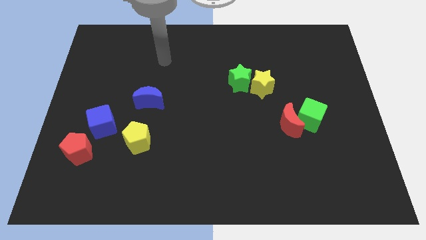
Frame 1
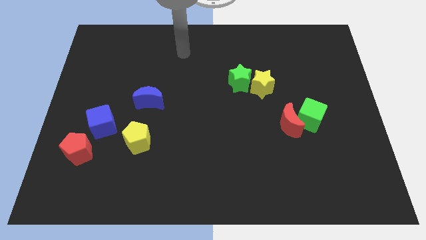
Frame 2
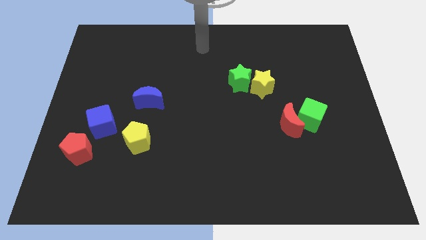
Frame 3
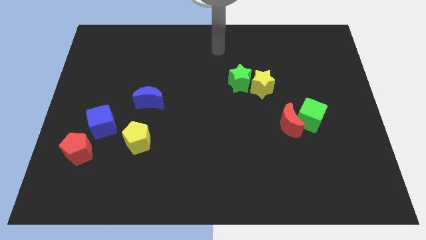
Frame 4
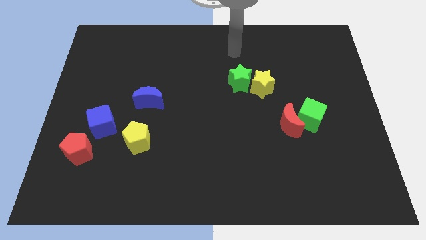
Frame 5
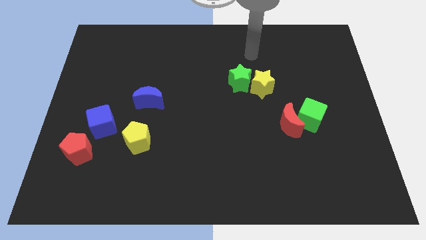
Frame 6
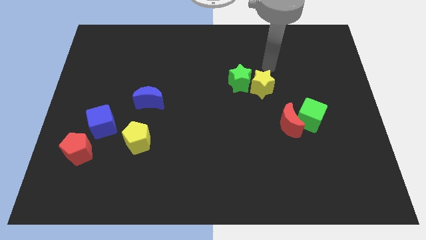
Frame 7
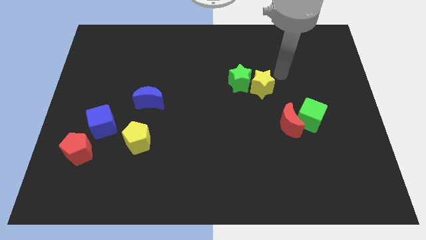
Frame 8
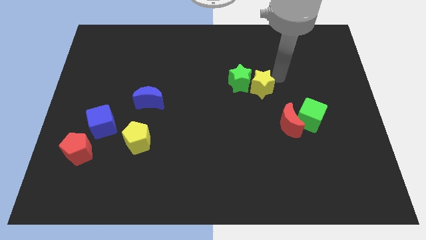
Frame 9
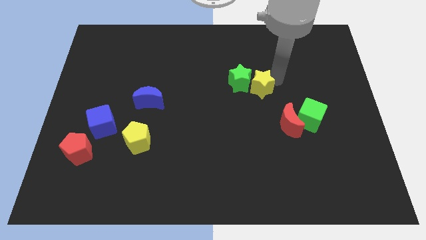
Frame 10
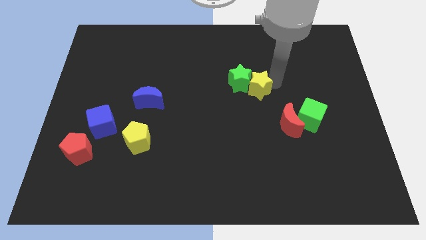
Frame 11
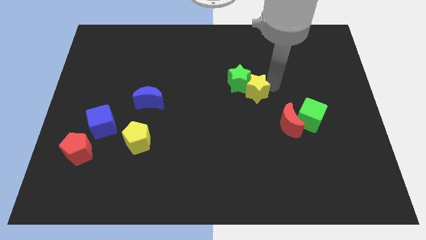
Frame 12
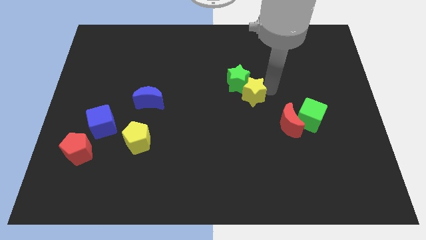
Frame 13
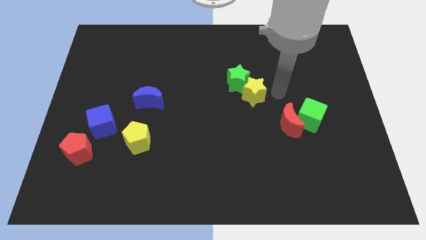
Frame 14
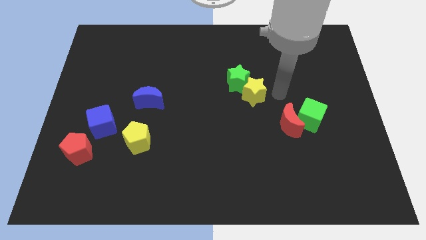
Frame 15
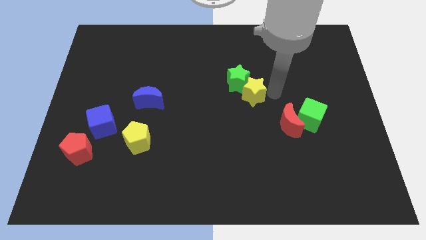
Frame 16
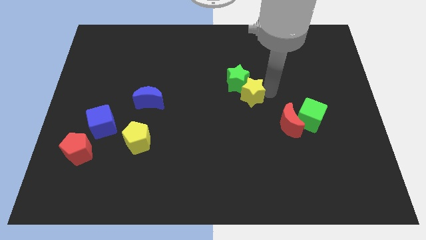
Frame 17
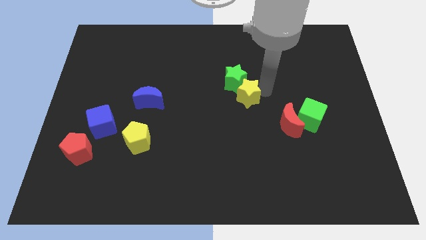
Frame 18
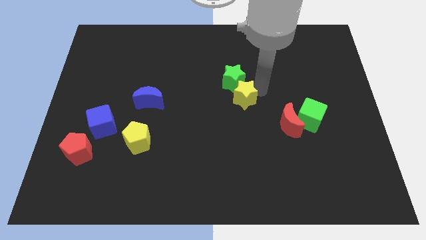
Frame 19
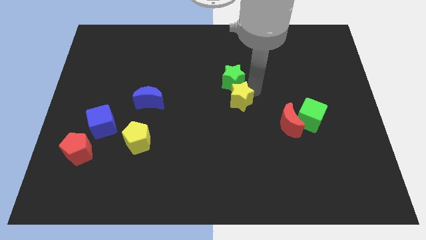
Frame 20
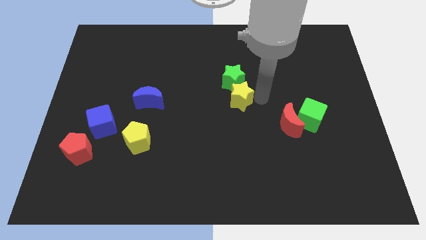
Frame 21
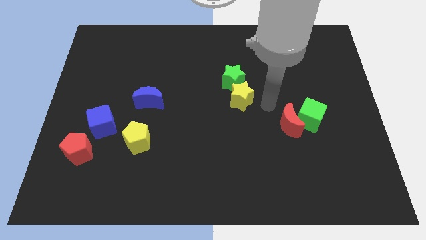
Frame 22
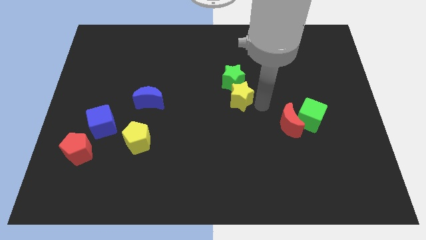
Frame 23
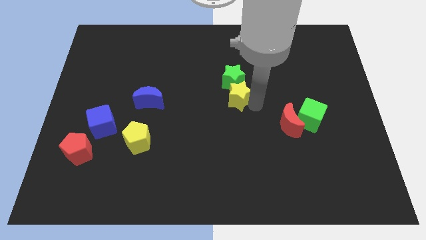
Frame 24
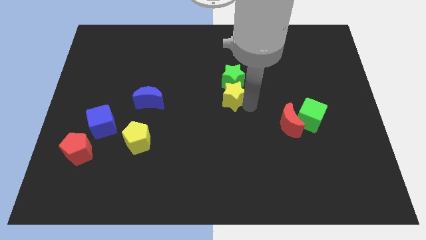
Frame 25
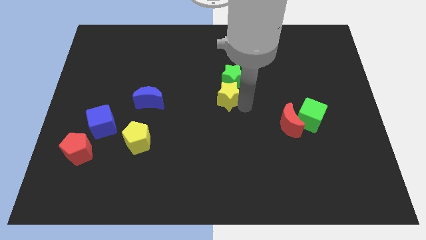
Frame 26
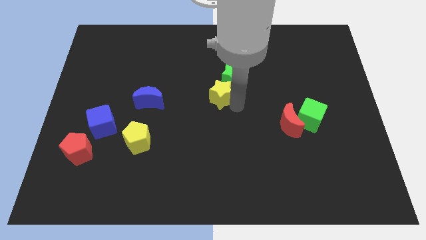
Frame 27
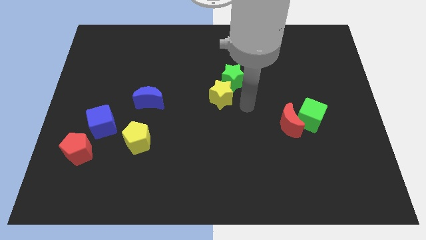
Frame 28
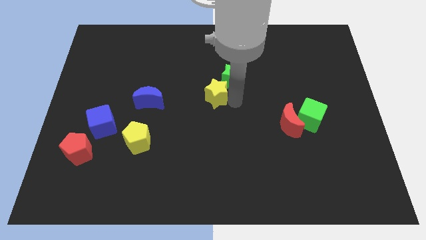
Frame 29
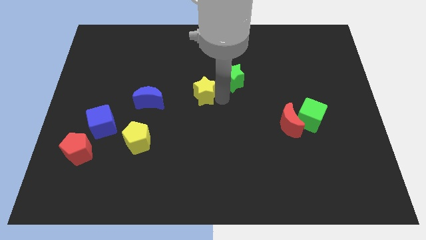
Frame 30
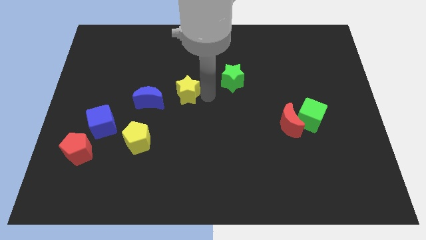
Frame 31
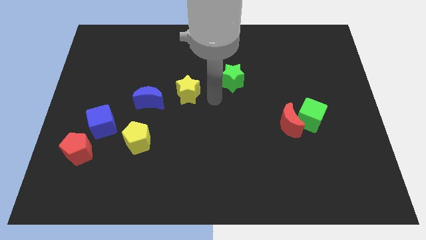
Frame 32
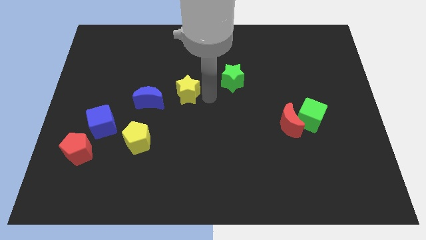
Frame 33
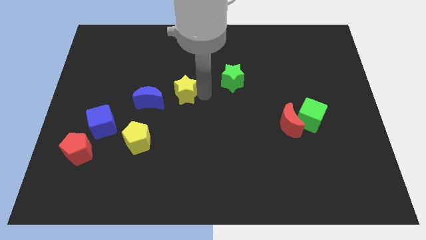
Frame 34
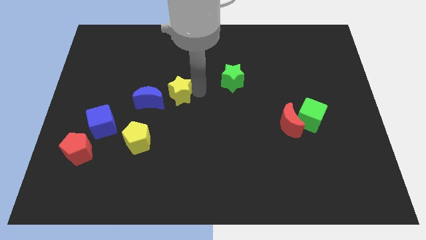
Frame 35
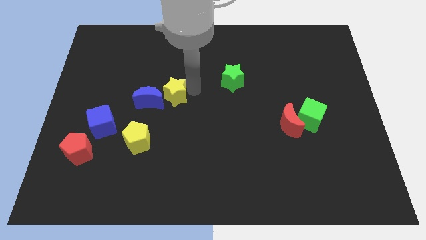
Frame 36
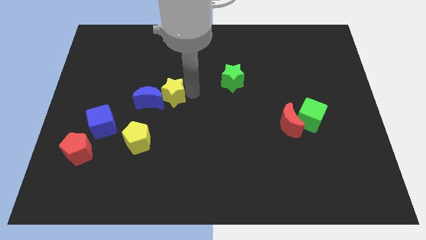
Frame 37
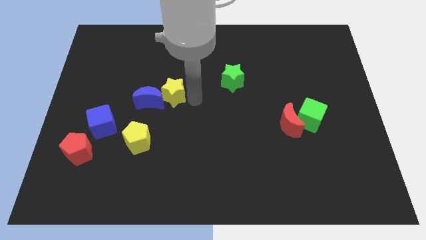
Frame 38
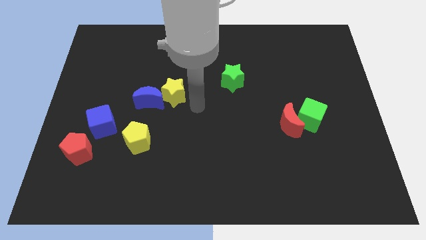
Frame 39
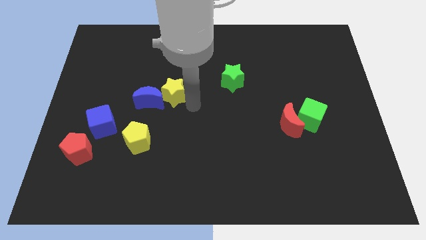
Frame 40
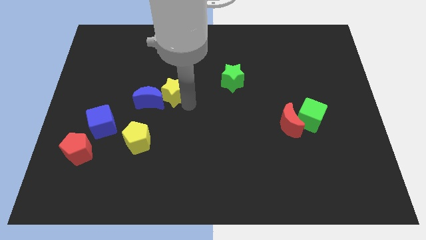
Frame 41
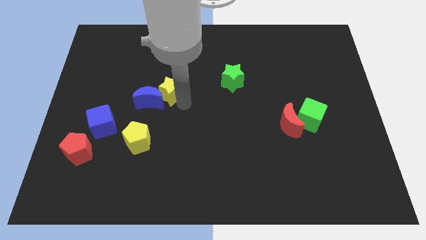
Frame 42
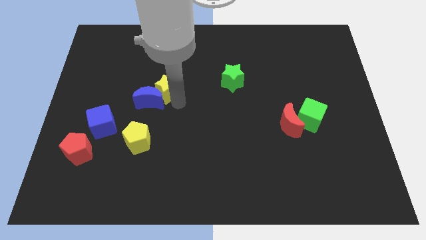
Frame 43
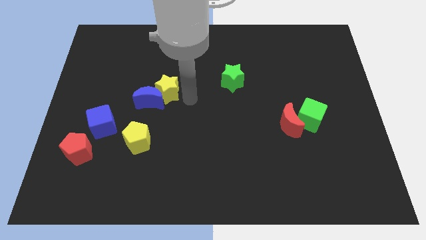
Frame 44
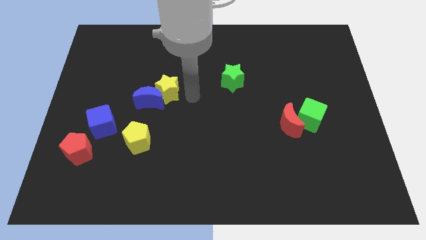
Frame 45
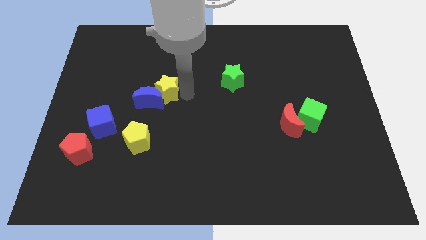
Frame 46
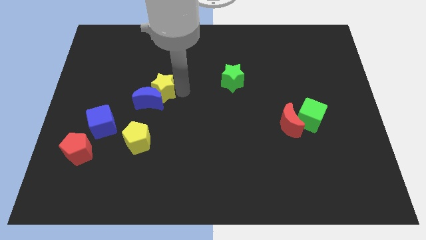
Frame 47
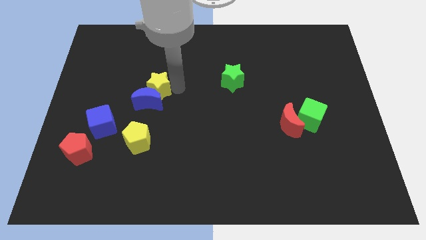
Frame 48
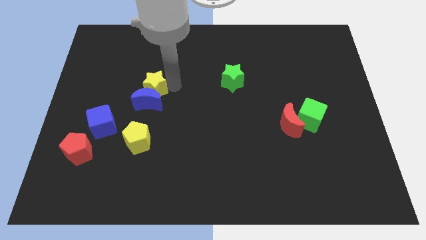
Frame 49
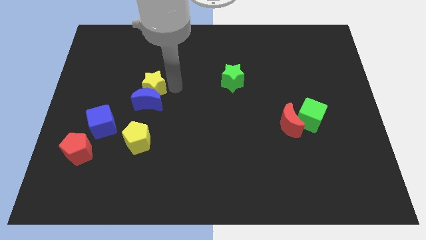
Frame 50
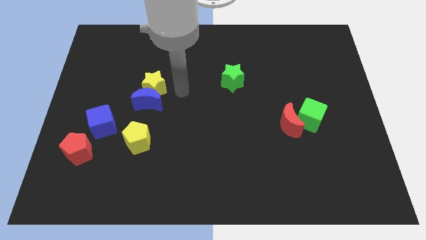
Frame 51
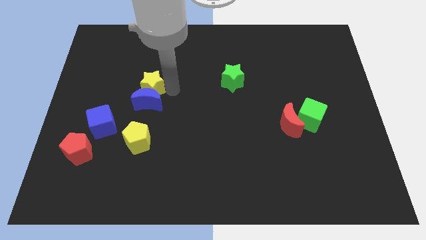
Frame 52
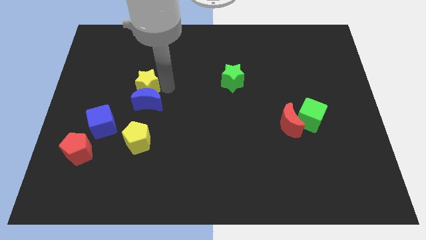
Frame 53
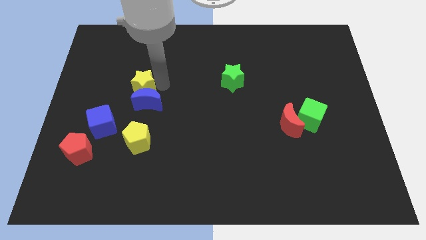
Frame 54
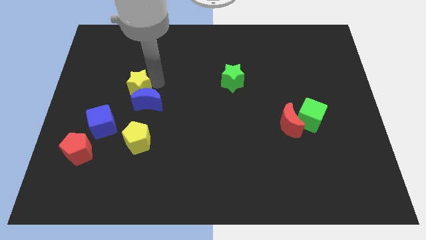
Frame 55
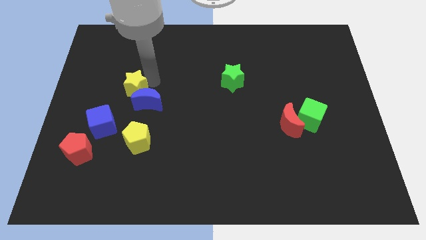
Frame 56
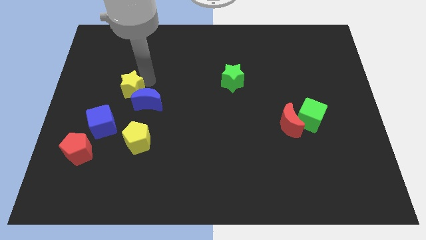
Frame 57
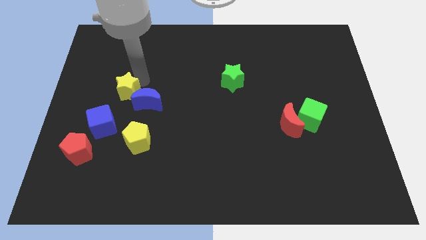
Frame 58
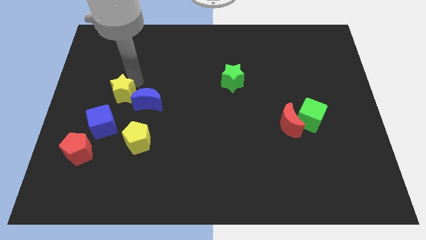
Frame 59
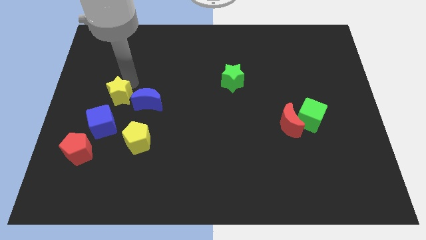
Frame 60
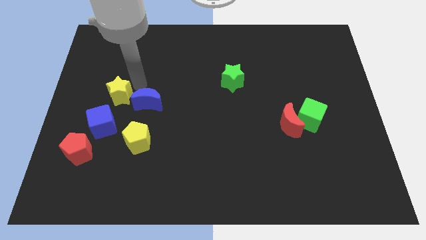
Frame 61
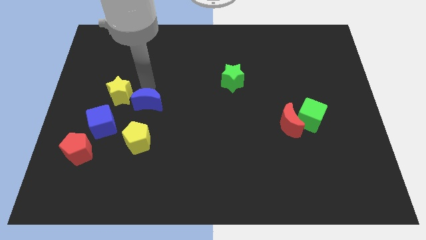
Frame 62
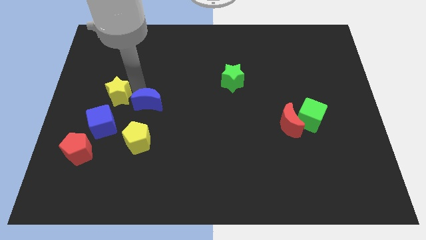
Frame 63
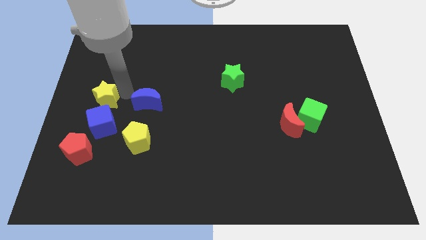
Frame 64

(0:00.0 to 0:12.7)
push the yellow star to the left side of the board
